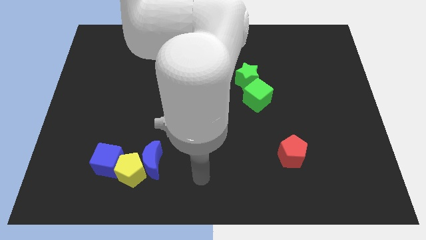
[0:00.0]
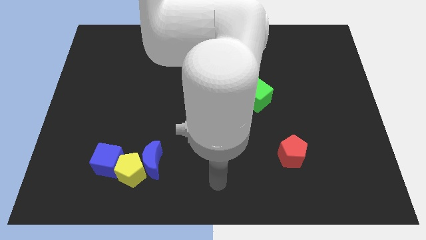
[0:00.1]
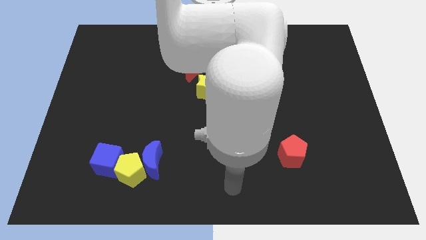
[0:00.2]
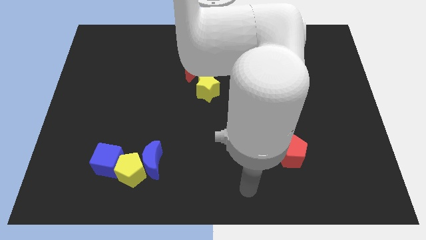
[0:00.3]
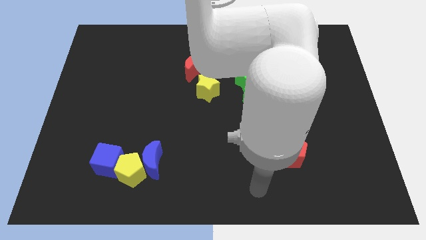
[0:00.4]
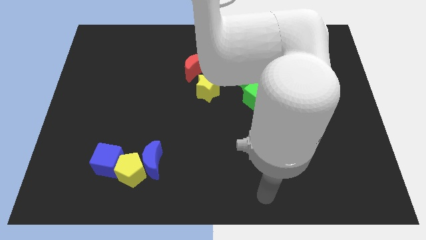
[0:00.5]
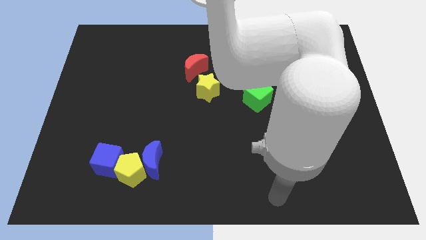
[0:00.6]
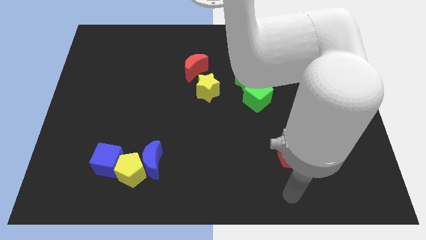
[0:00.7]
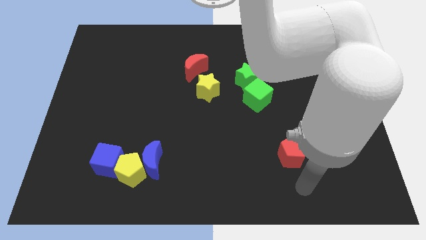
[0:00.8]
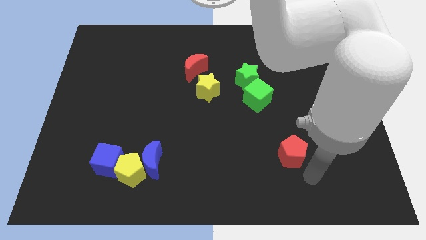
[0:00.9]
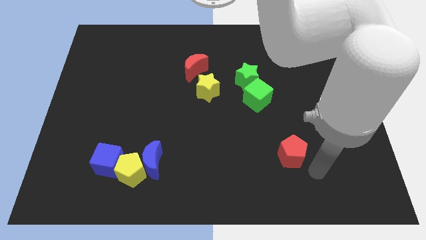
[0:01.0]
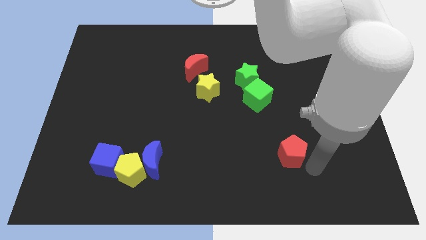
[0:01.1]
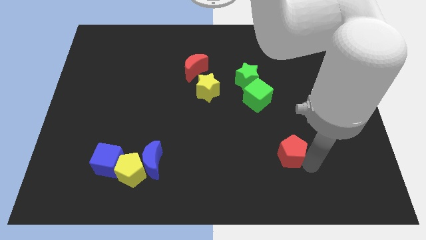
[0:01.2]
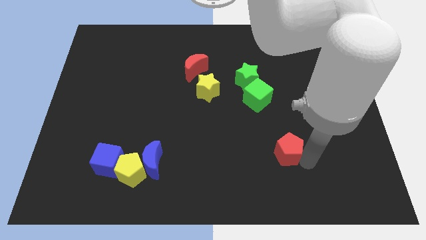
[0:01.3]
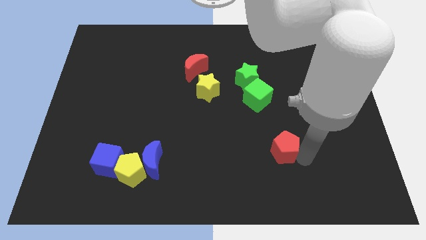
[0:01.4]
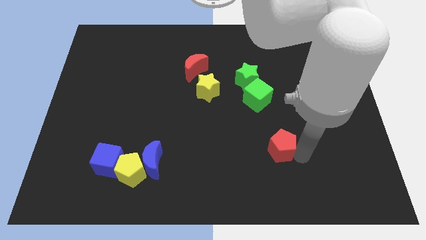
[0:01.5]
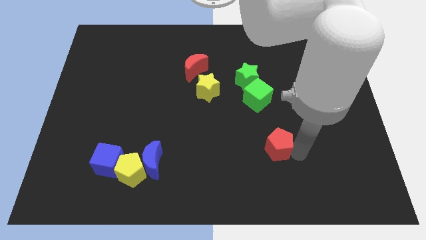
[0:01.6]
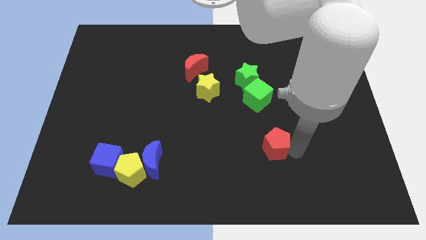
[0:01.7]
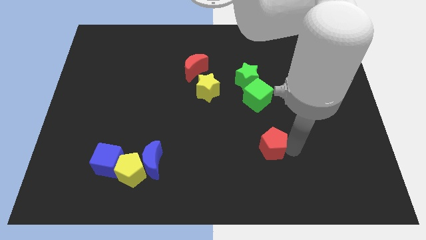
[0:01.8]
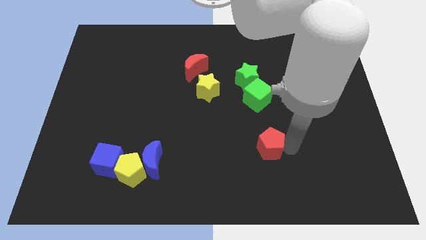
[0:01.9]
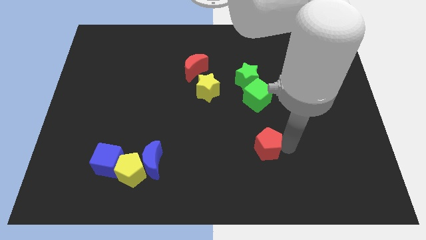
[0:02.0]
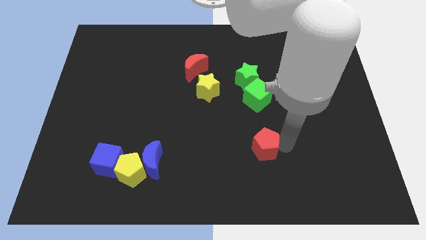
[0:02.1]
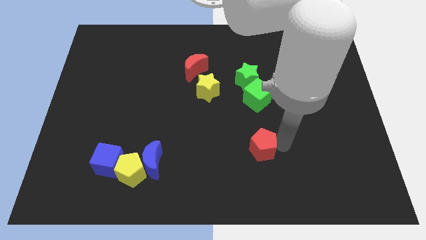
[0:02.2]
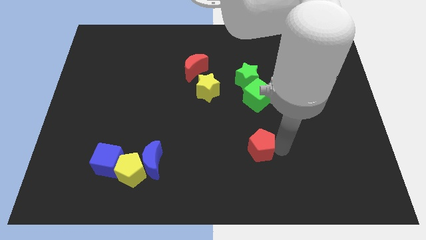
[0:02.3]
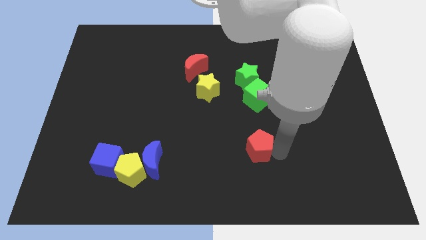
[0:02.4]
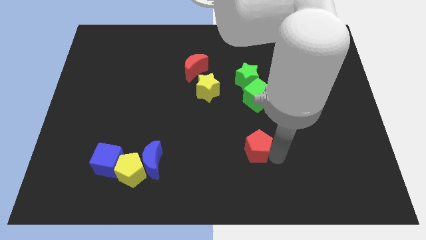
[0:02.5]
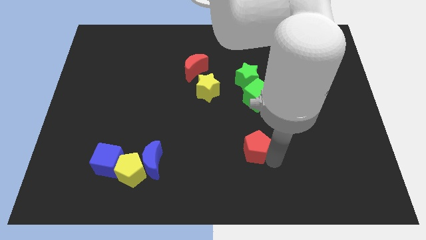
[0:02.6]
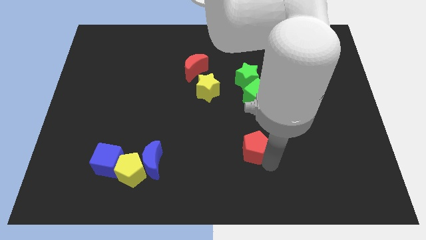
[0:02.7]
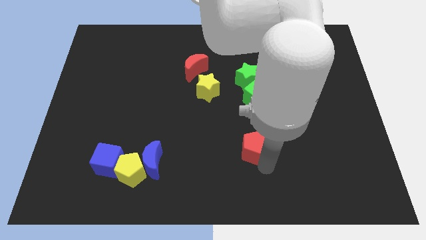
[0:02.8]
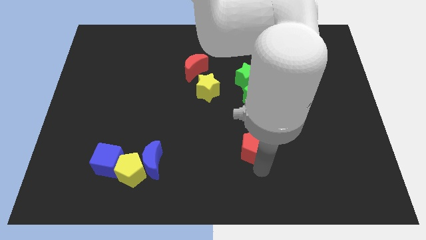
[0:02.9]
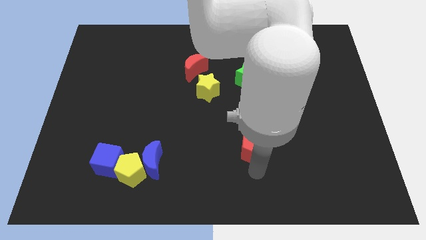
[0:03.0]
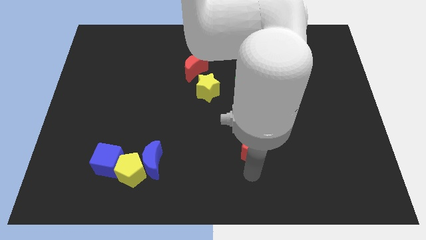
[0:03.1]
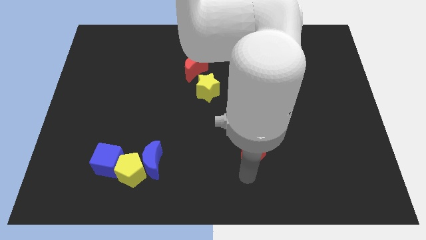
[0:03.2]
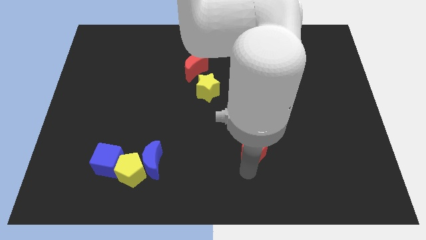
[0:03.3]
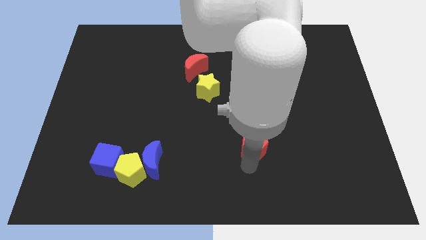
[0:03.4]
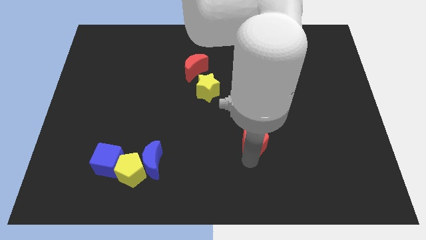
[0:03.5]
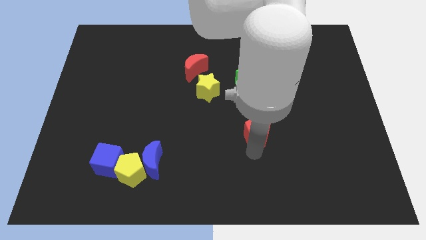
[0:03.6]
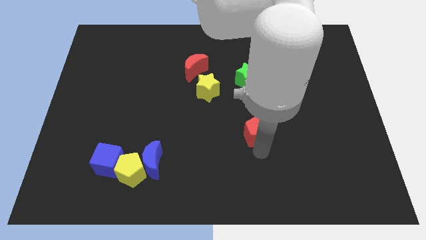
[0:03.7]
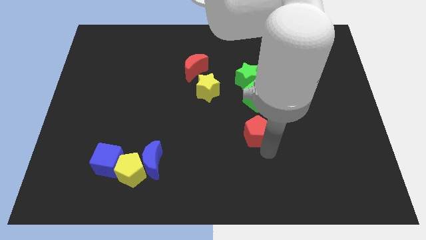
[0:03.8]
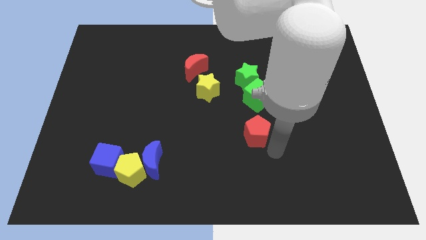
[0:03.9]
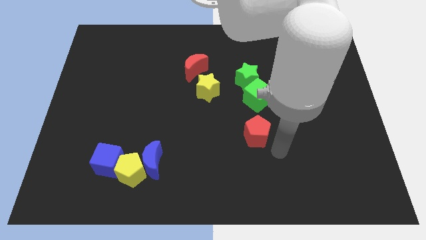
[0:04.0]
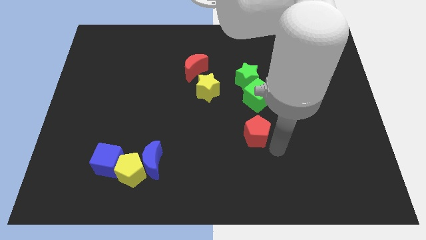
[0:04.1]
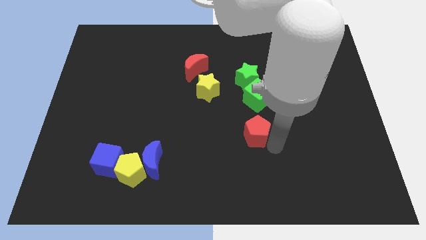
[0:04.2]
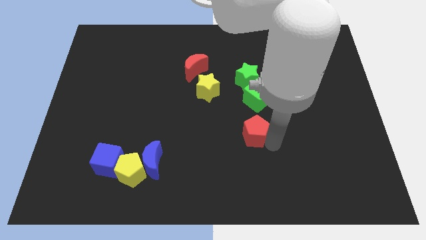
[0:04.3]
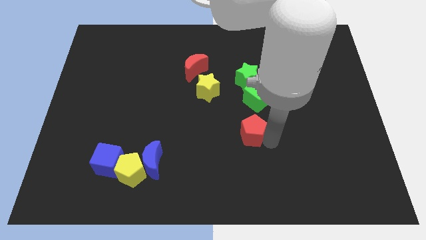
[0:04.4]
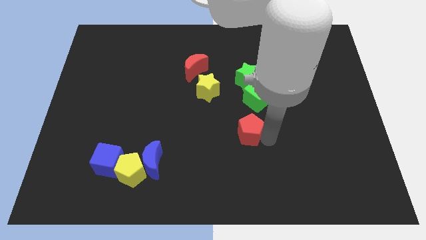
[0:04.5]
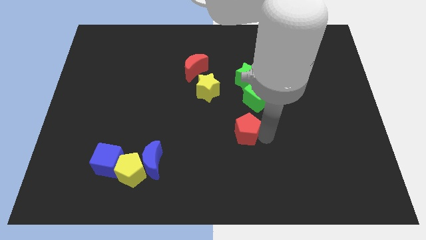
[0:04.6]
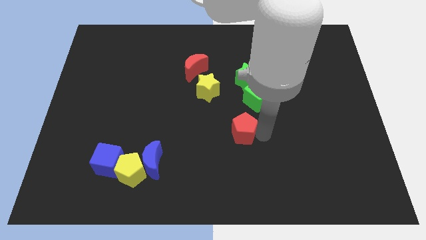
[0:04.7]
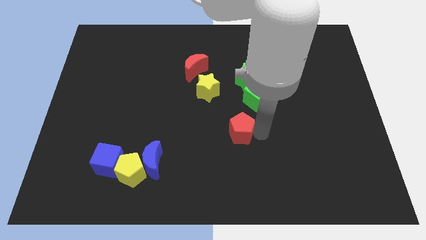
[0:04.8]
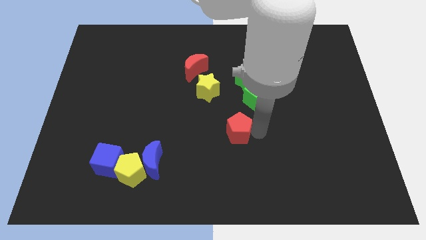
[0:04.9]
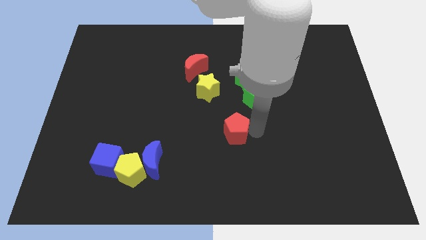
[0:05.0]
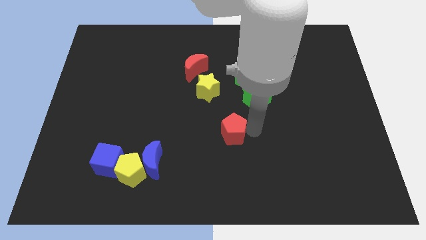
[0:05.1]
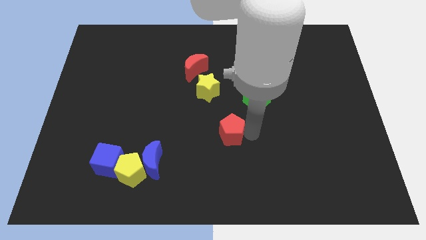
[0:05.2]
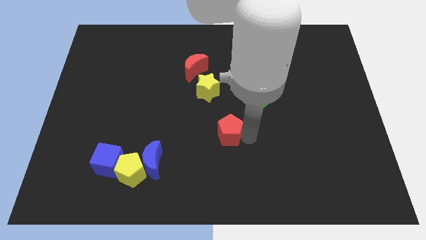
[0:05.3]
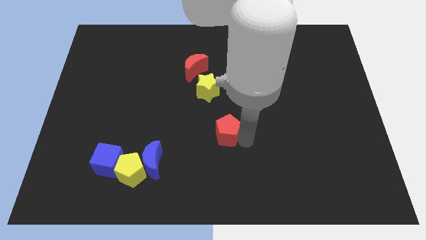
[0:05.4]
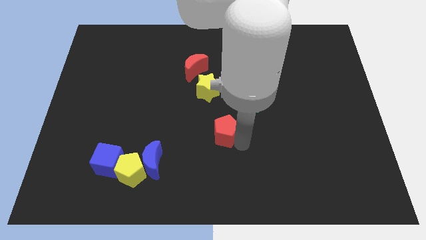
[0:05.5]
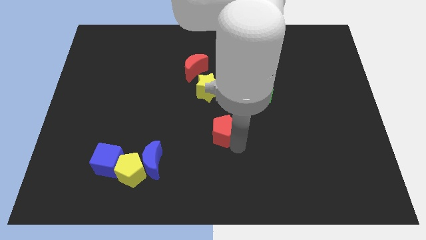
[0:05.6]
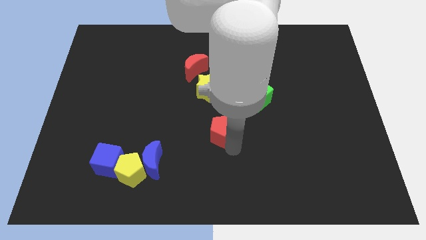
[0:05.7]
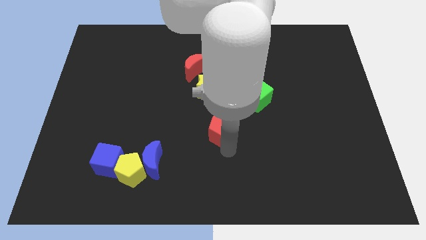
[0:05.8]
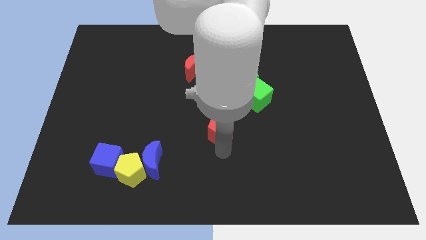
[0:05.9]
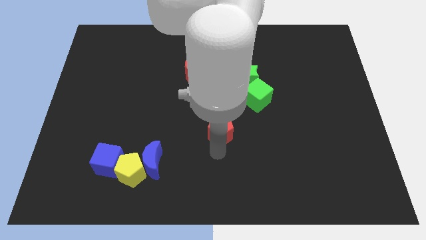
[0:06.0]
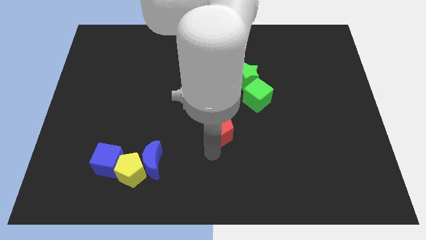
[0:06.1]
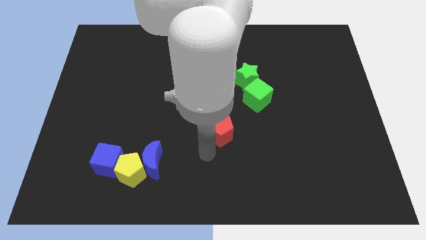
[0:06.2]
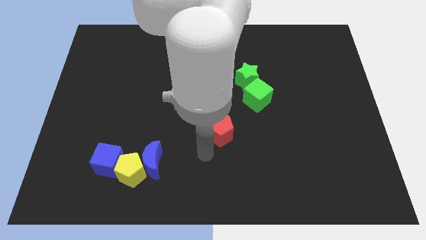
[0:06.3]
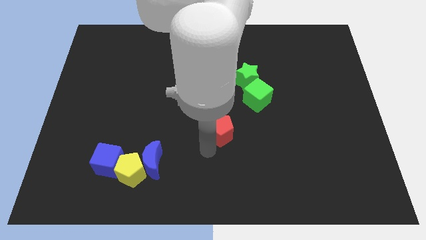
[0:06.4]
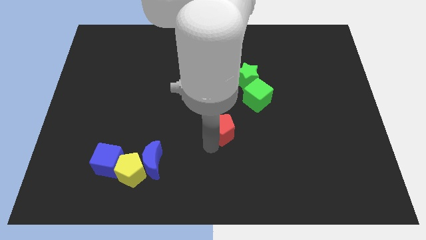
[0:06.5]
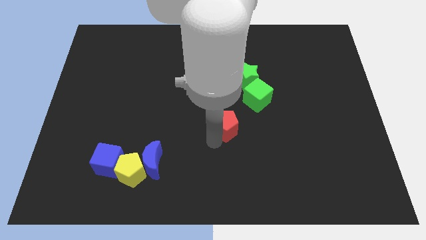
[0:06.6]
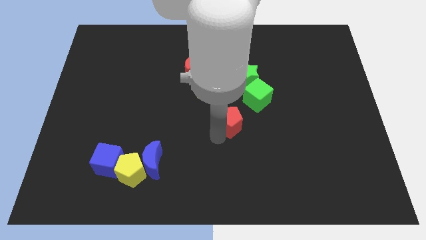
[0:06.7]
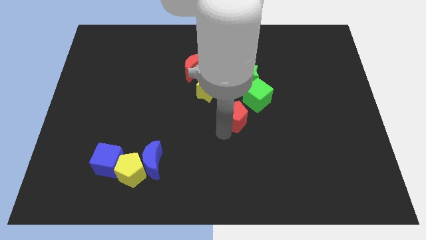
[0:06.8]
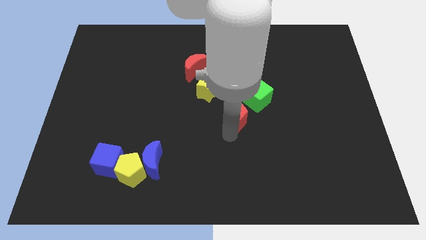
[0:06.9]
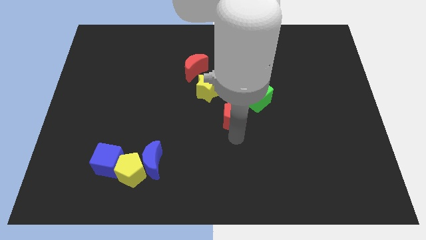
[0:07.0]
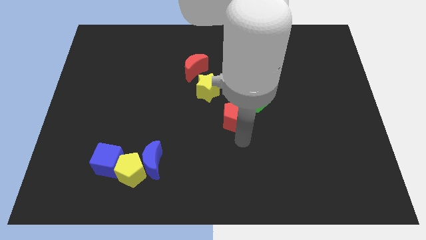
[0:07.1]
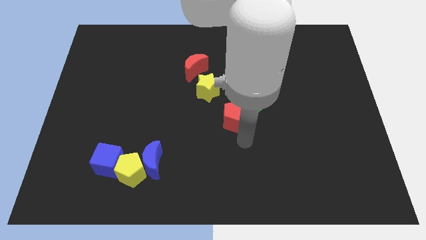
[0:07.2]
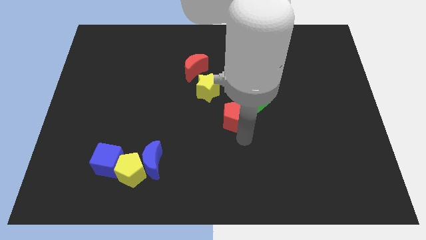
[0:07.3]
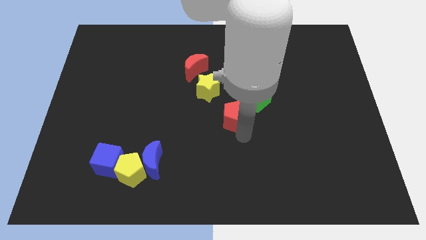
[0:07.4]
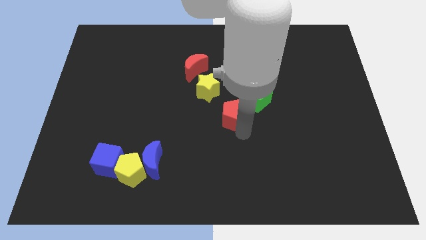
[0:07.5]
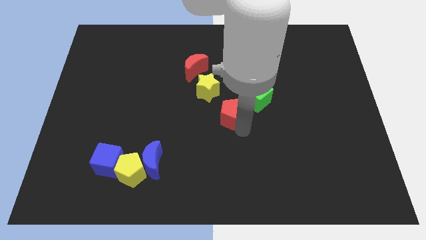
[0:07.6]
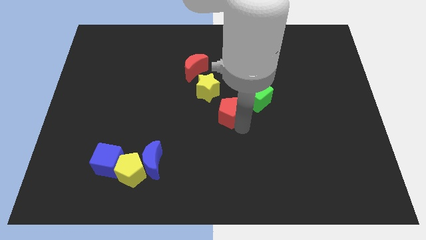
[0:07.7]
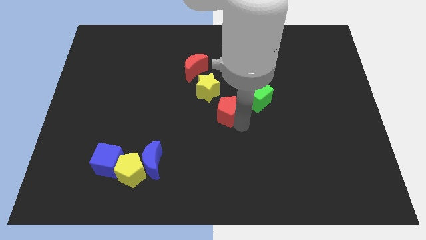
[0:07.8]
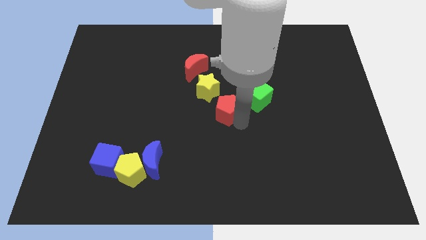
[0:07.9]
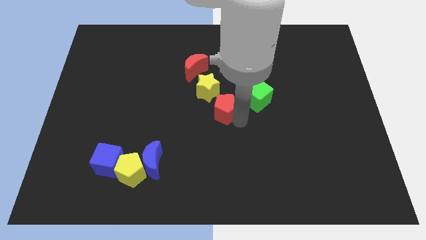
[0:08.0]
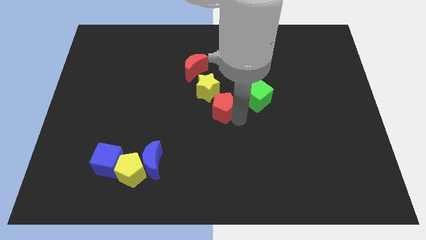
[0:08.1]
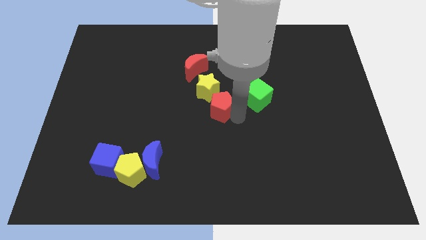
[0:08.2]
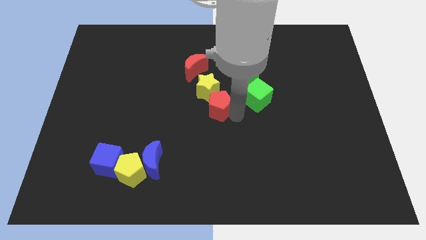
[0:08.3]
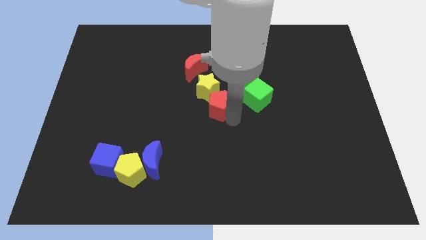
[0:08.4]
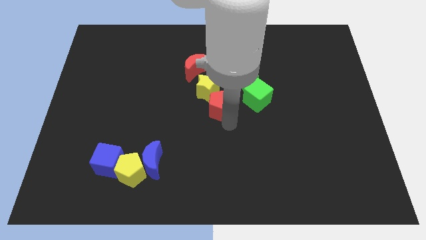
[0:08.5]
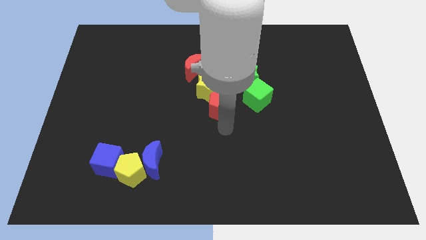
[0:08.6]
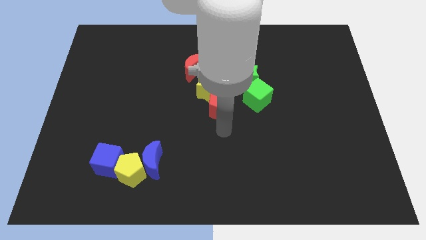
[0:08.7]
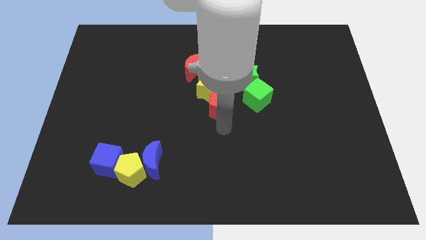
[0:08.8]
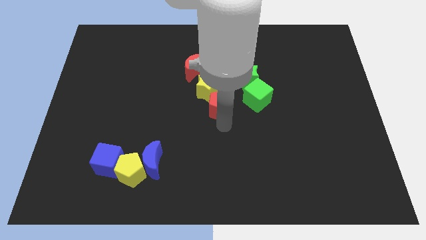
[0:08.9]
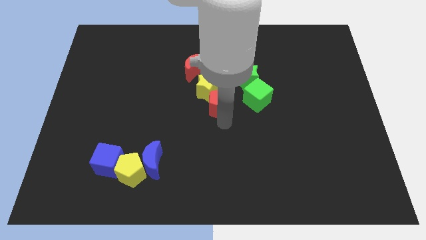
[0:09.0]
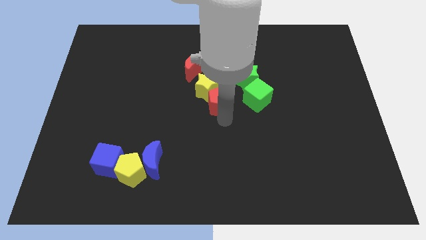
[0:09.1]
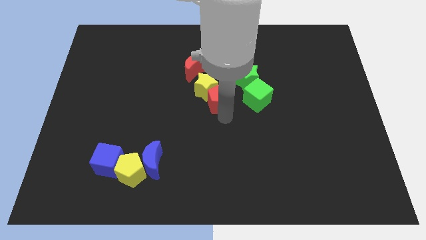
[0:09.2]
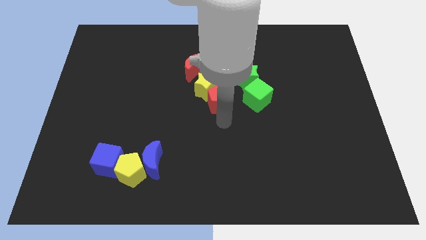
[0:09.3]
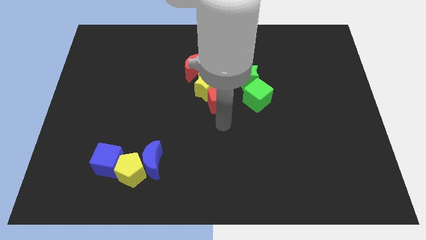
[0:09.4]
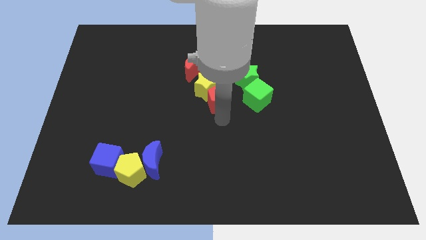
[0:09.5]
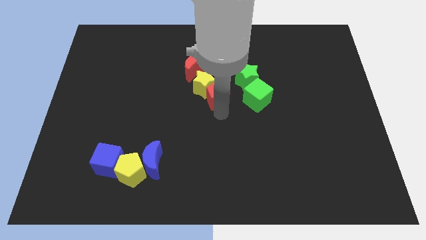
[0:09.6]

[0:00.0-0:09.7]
move the red pentagon to the bottom right side of the red moon
